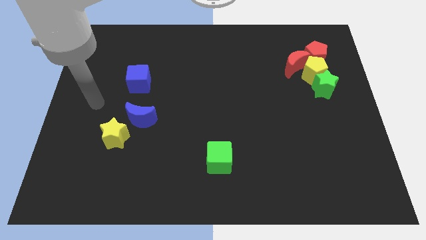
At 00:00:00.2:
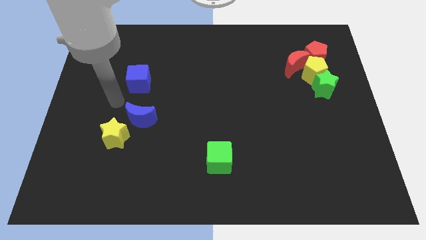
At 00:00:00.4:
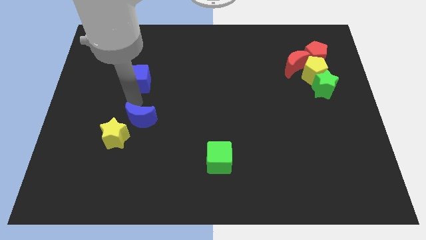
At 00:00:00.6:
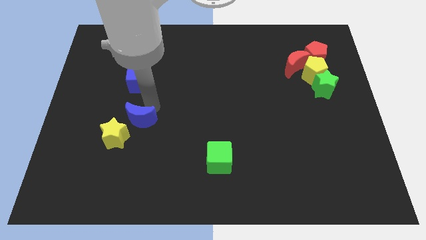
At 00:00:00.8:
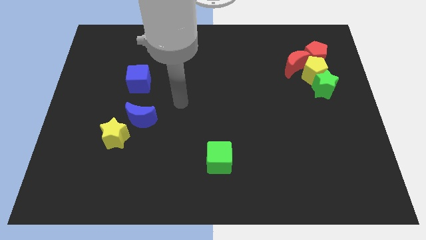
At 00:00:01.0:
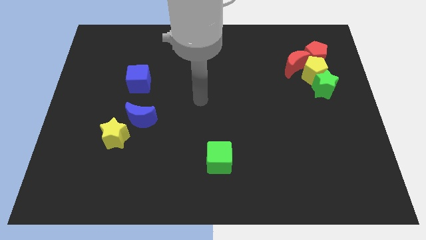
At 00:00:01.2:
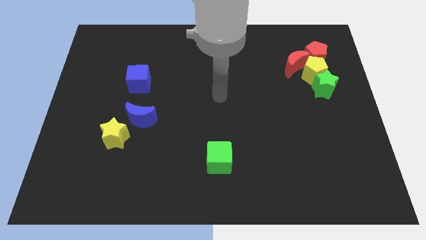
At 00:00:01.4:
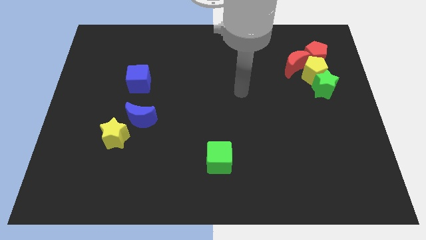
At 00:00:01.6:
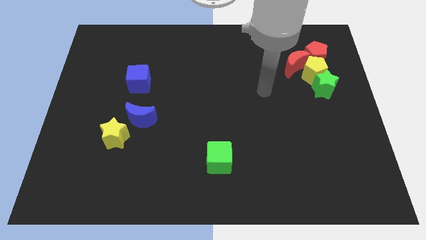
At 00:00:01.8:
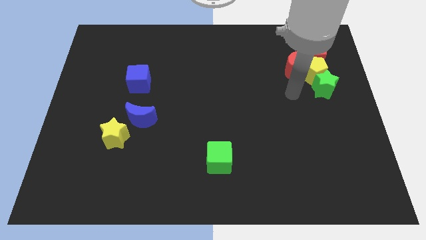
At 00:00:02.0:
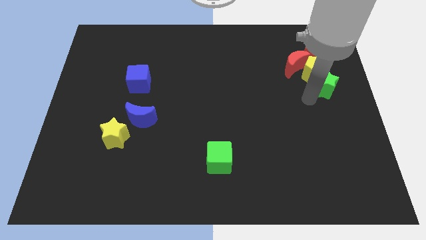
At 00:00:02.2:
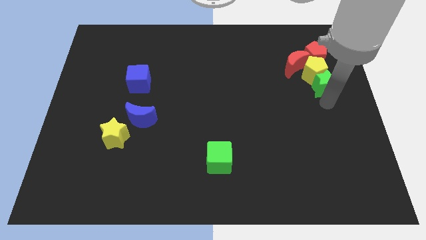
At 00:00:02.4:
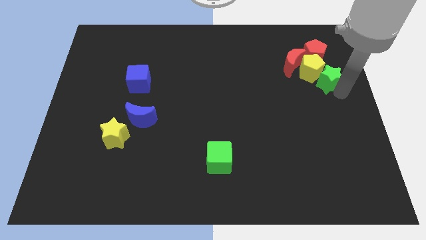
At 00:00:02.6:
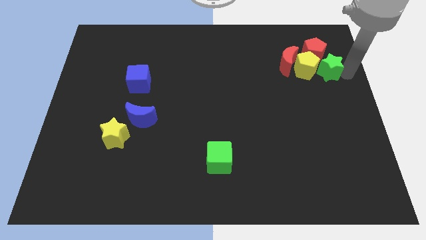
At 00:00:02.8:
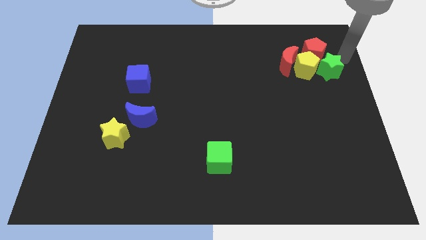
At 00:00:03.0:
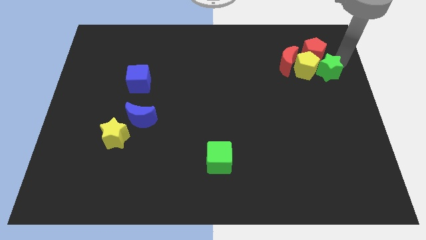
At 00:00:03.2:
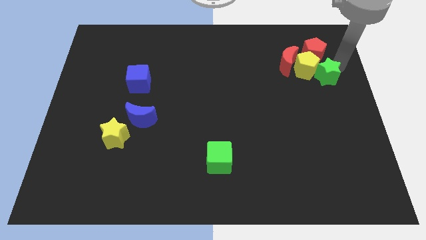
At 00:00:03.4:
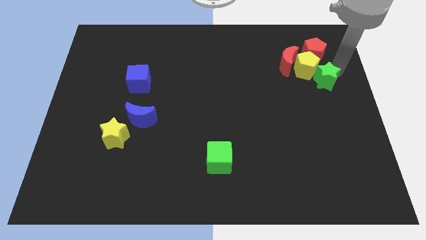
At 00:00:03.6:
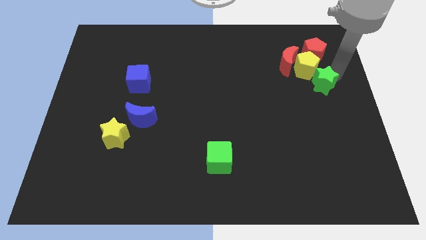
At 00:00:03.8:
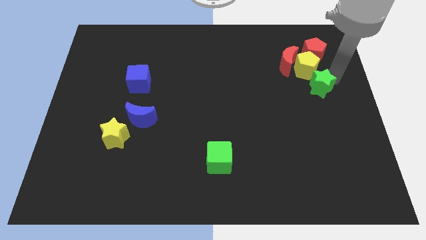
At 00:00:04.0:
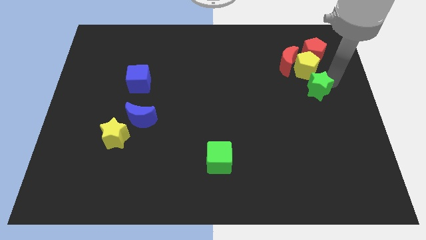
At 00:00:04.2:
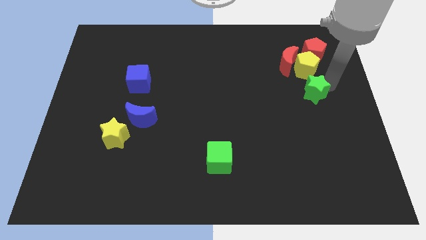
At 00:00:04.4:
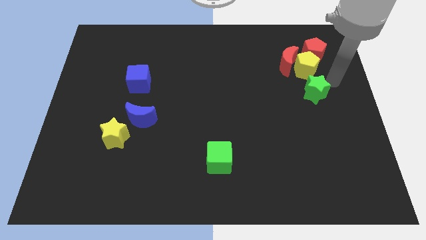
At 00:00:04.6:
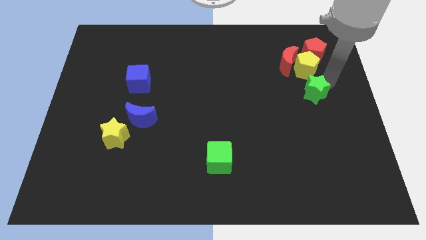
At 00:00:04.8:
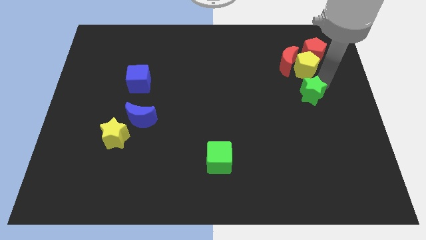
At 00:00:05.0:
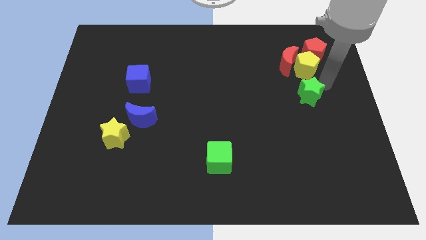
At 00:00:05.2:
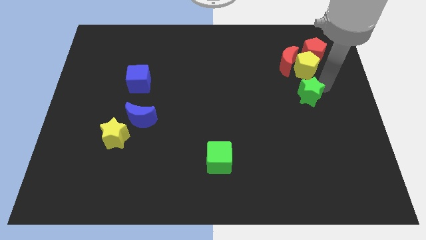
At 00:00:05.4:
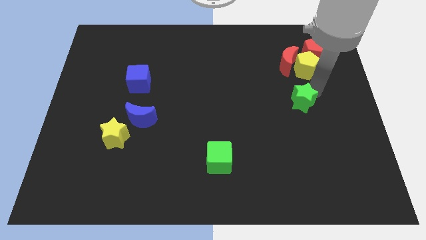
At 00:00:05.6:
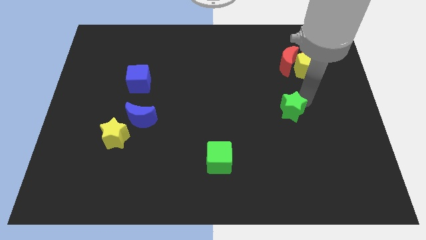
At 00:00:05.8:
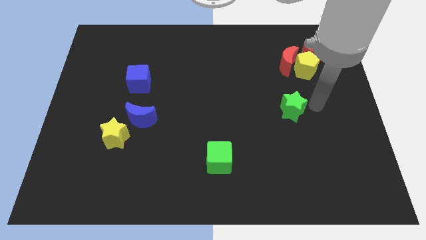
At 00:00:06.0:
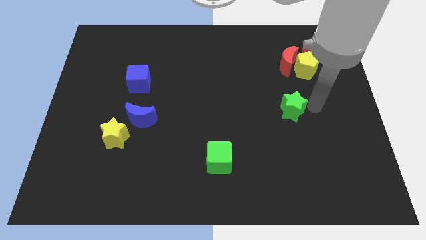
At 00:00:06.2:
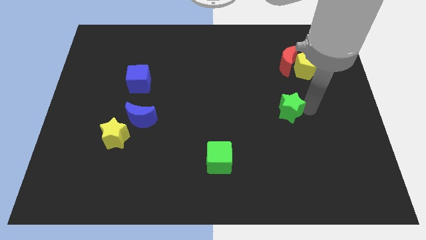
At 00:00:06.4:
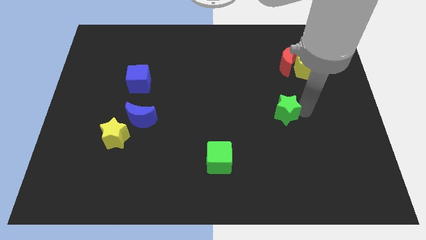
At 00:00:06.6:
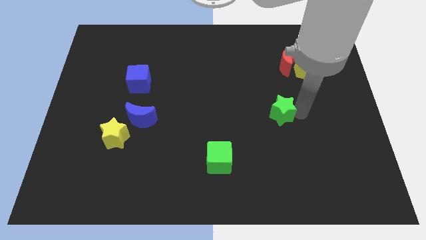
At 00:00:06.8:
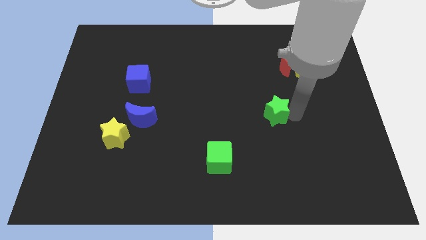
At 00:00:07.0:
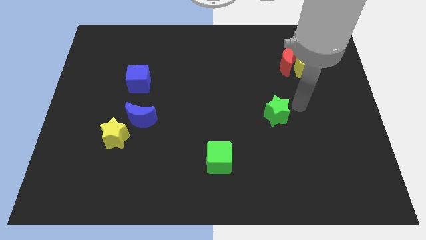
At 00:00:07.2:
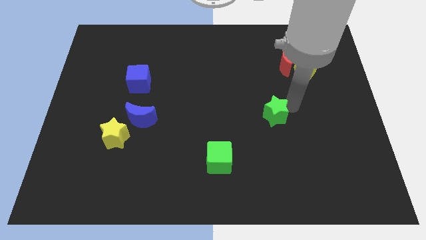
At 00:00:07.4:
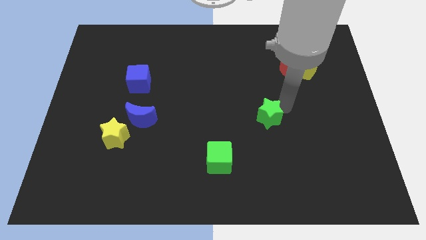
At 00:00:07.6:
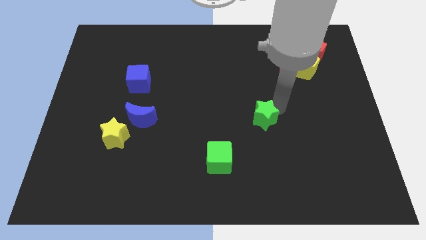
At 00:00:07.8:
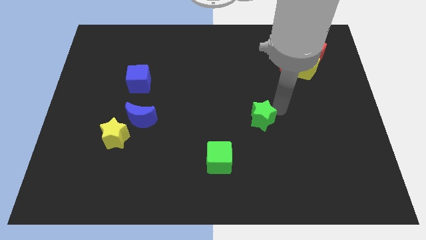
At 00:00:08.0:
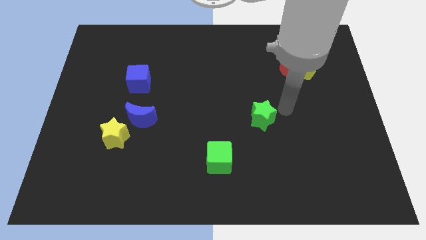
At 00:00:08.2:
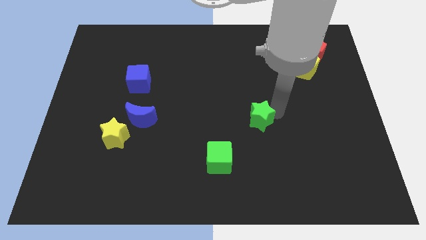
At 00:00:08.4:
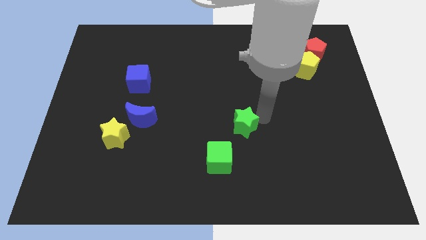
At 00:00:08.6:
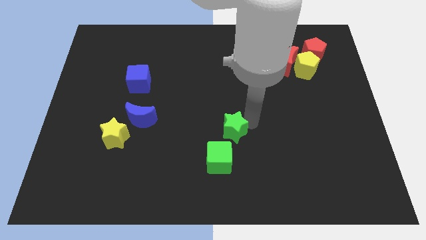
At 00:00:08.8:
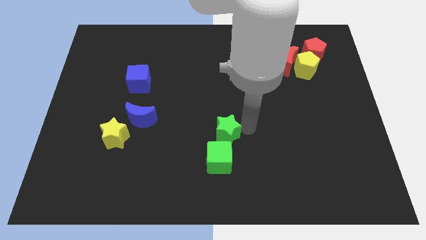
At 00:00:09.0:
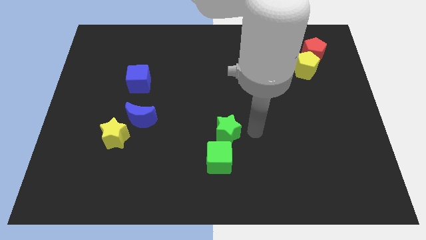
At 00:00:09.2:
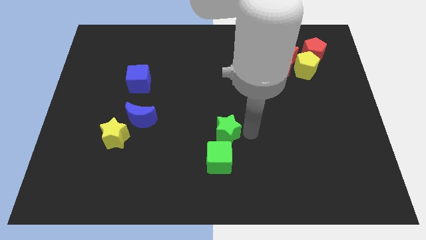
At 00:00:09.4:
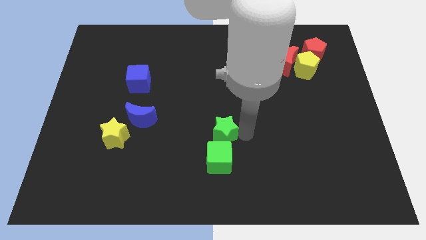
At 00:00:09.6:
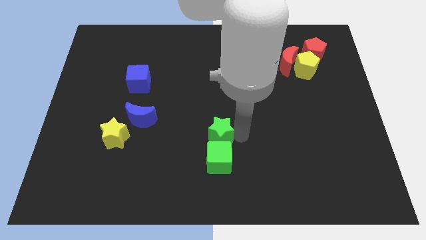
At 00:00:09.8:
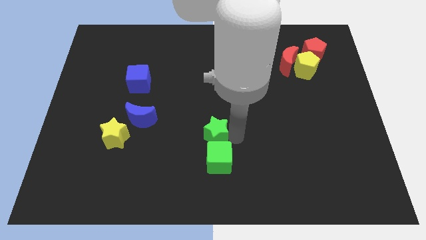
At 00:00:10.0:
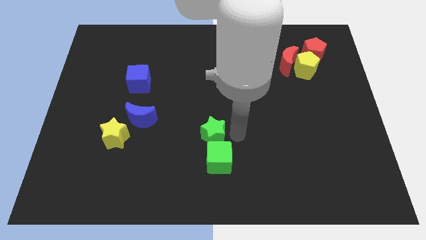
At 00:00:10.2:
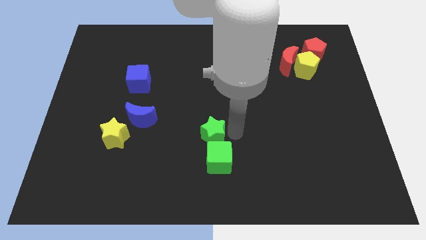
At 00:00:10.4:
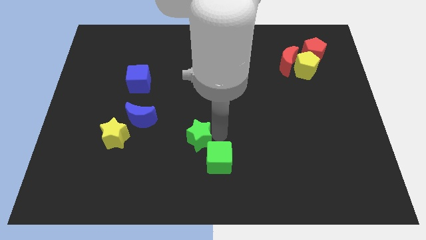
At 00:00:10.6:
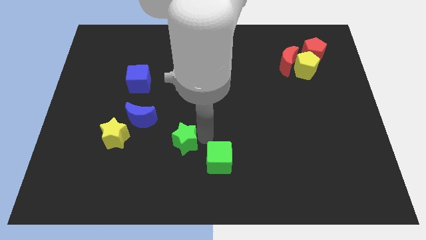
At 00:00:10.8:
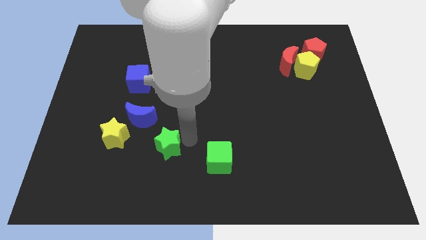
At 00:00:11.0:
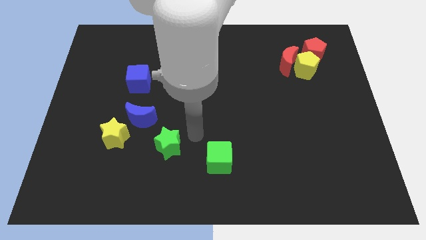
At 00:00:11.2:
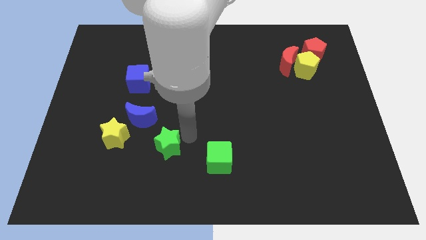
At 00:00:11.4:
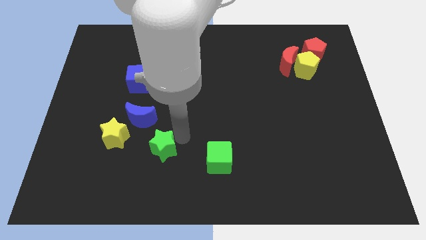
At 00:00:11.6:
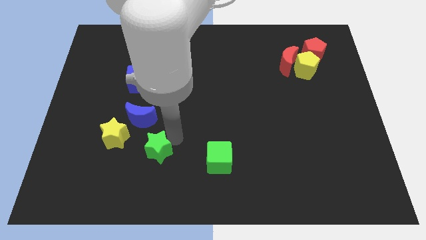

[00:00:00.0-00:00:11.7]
put the green star to the bottom right of the yellow star

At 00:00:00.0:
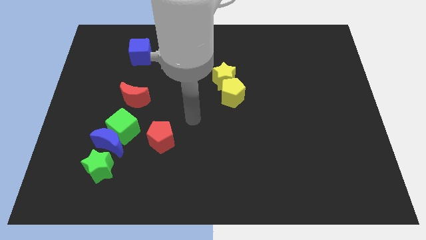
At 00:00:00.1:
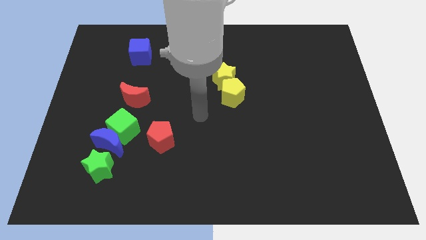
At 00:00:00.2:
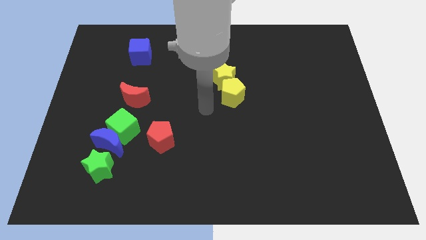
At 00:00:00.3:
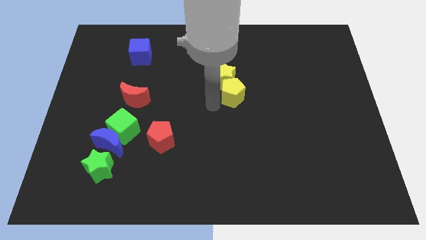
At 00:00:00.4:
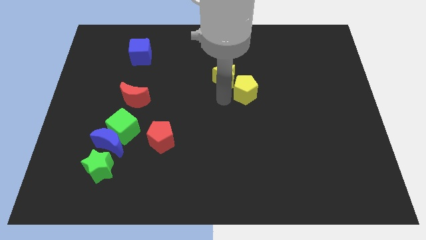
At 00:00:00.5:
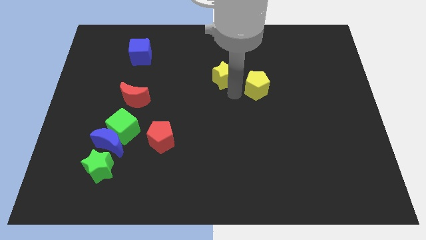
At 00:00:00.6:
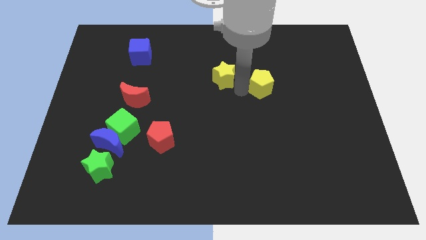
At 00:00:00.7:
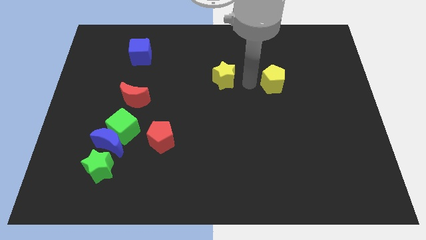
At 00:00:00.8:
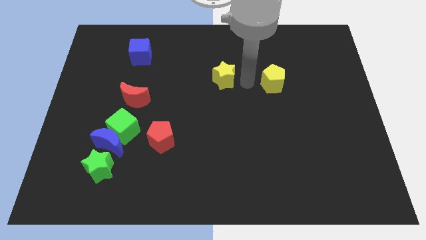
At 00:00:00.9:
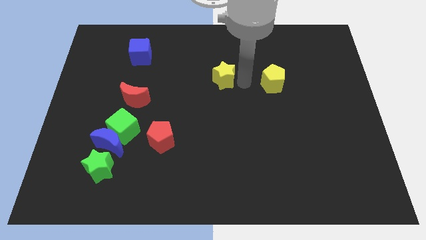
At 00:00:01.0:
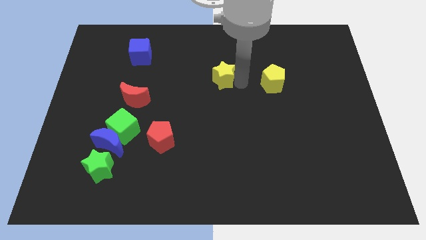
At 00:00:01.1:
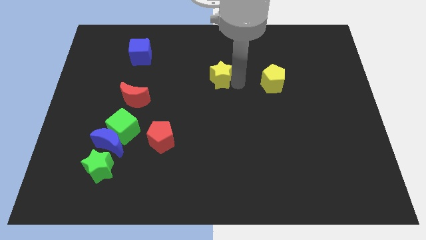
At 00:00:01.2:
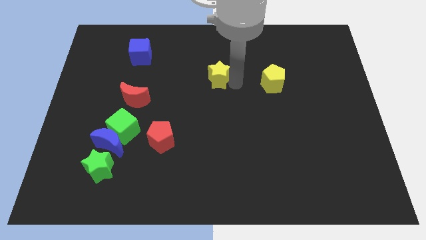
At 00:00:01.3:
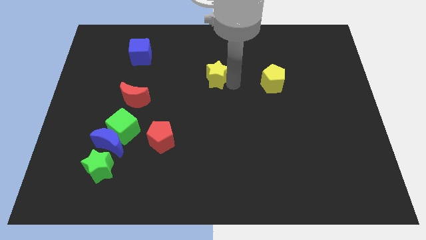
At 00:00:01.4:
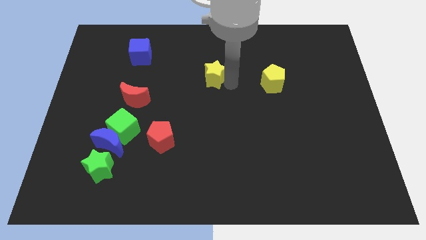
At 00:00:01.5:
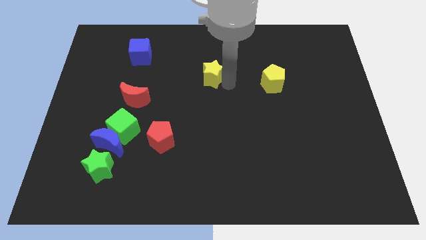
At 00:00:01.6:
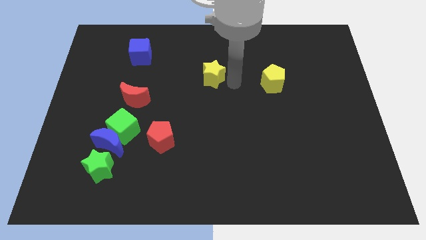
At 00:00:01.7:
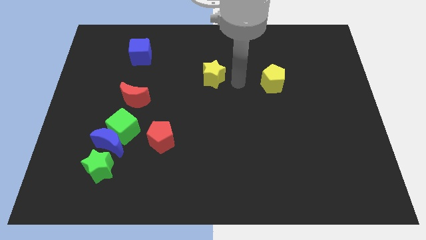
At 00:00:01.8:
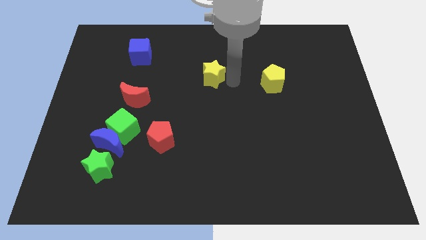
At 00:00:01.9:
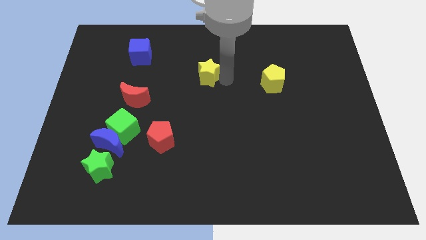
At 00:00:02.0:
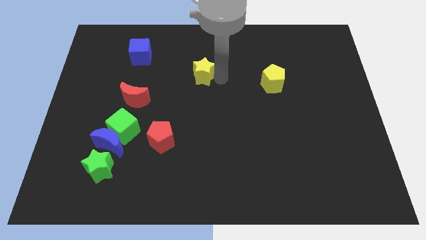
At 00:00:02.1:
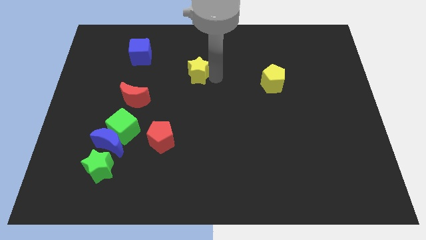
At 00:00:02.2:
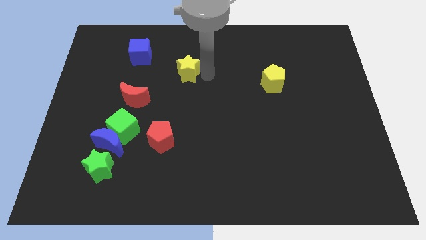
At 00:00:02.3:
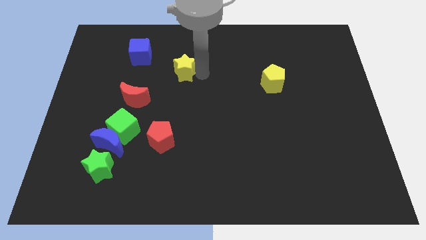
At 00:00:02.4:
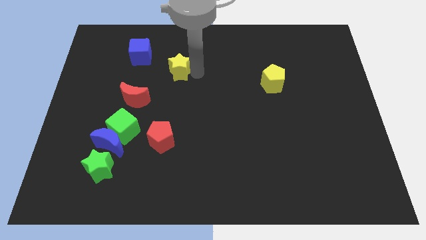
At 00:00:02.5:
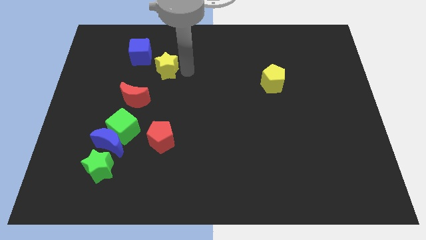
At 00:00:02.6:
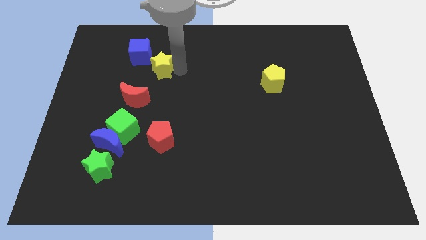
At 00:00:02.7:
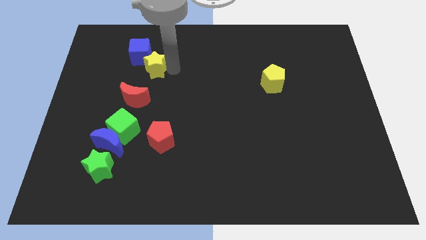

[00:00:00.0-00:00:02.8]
put the yellow star to the top side of the red moon
